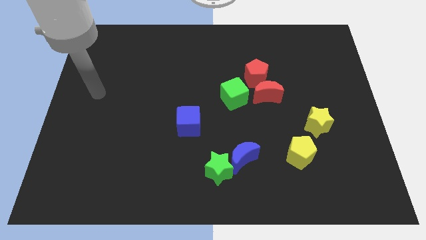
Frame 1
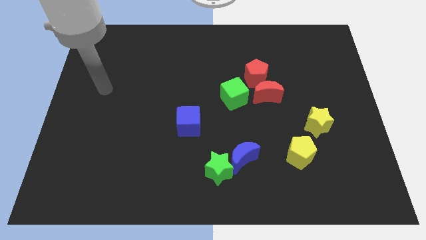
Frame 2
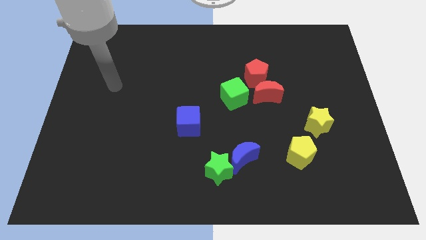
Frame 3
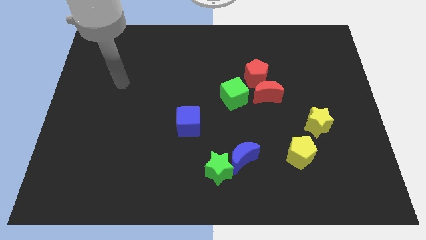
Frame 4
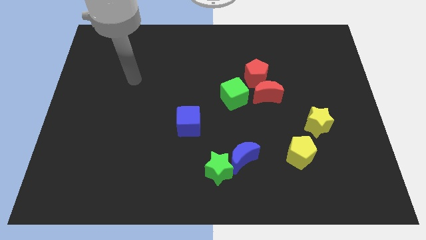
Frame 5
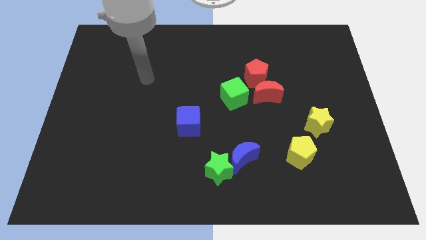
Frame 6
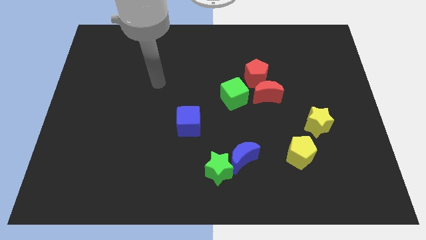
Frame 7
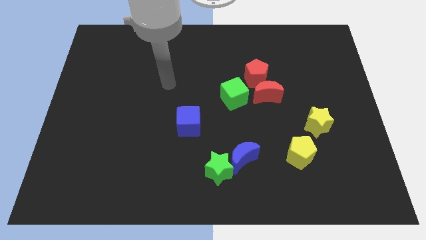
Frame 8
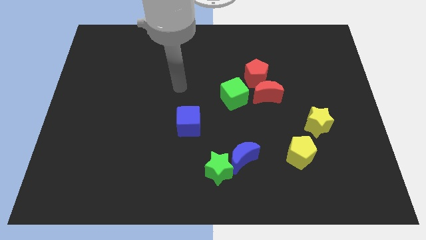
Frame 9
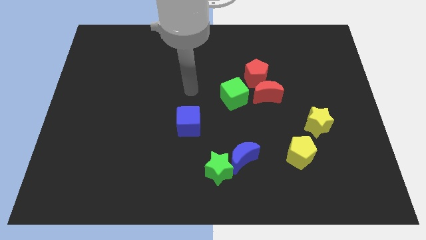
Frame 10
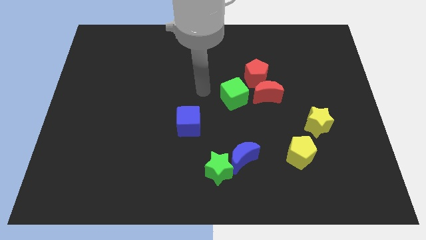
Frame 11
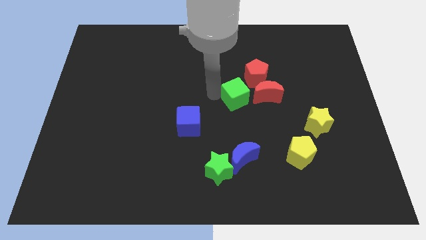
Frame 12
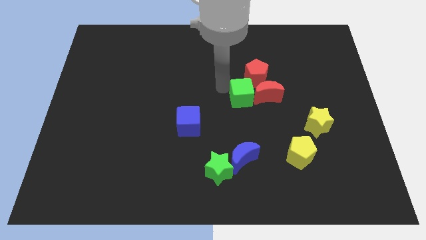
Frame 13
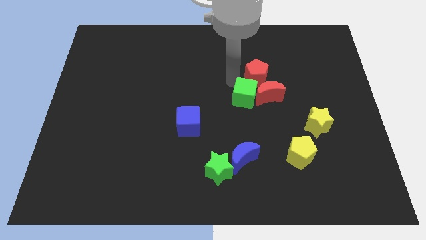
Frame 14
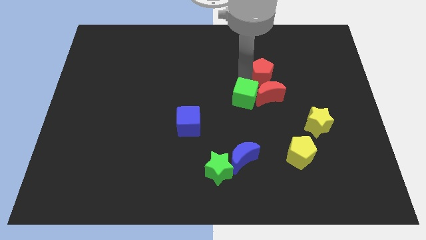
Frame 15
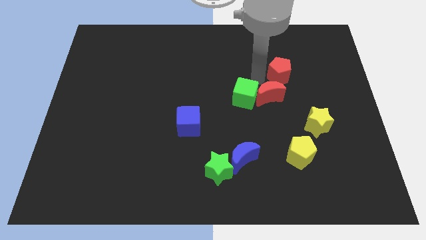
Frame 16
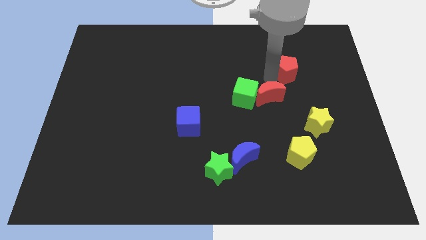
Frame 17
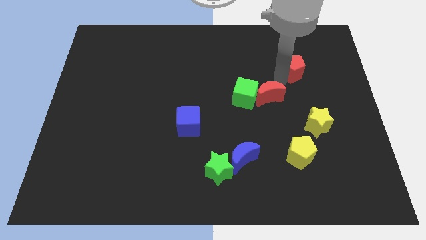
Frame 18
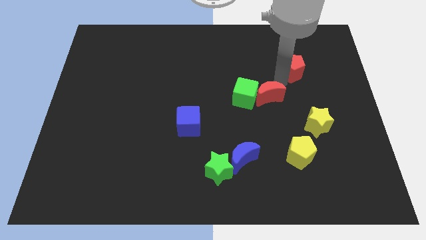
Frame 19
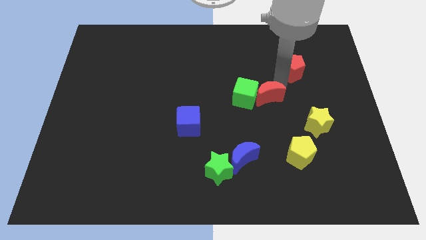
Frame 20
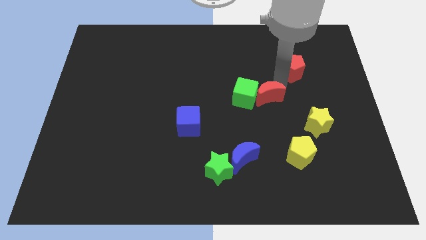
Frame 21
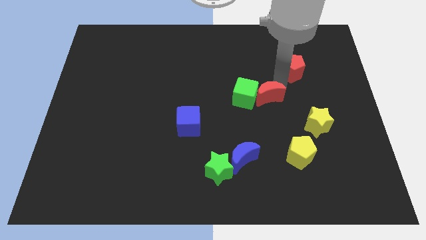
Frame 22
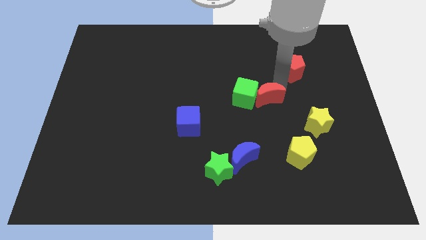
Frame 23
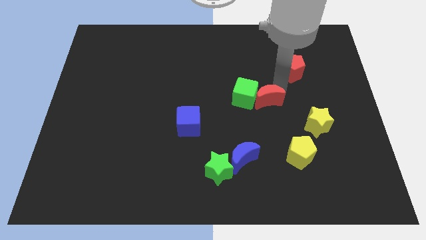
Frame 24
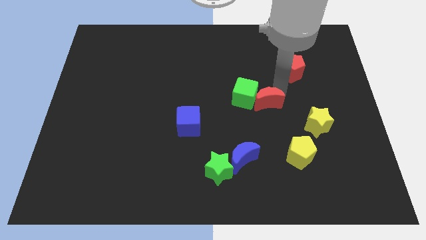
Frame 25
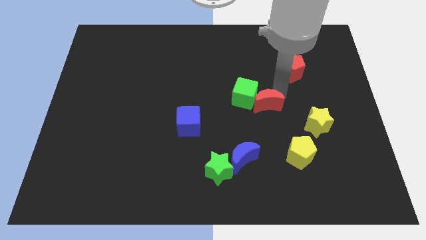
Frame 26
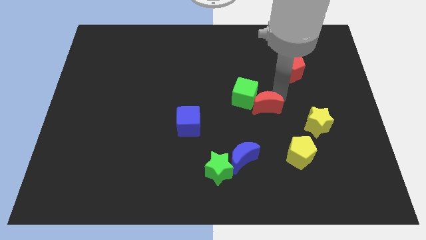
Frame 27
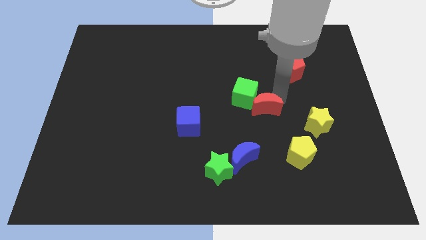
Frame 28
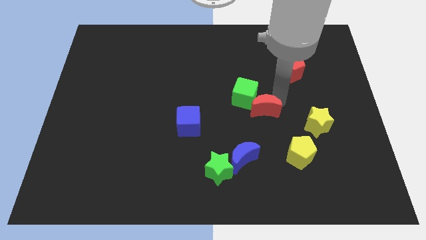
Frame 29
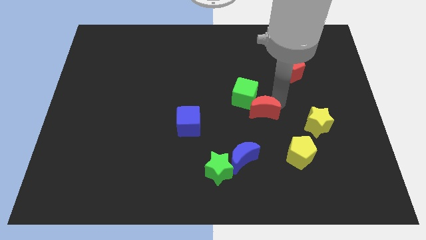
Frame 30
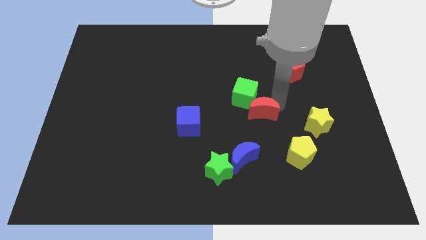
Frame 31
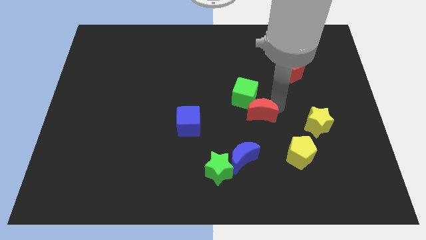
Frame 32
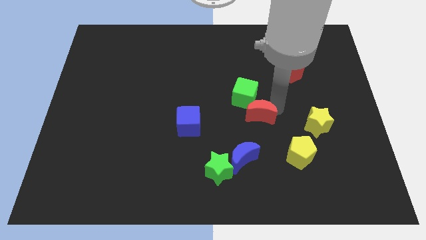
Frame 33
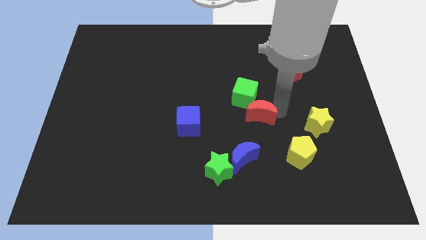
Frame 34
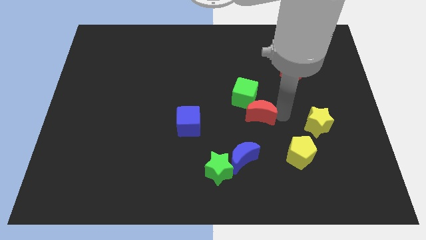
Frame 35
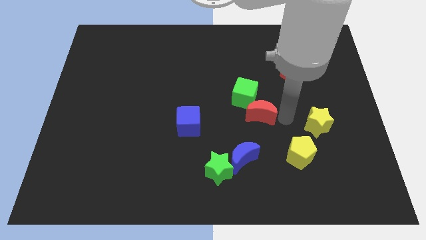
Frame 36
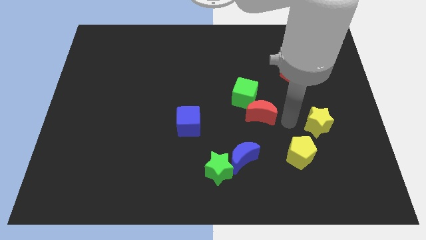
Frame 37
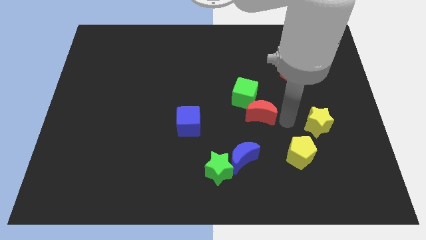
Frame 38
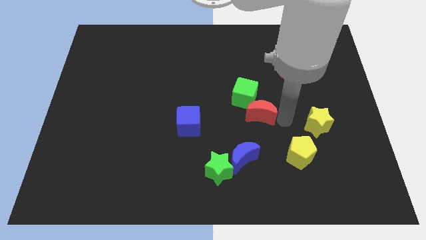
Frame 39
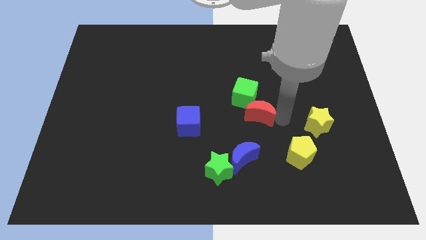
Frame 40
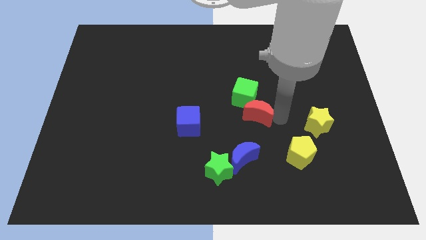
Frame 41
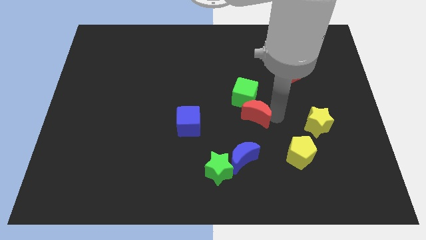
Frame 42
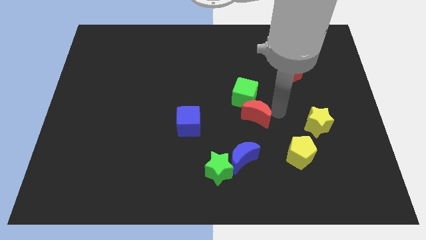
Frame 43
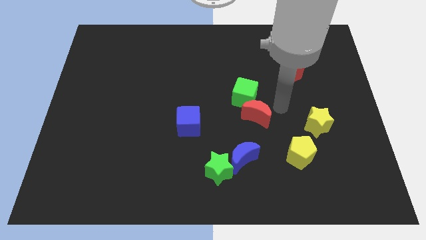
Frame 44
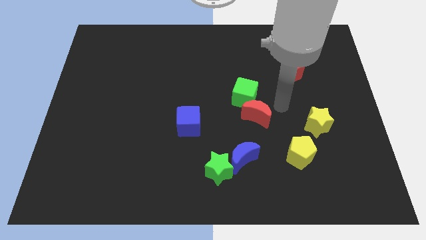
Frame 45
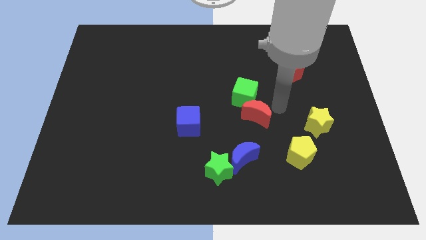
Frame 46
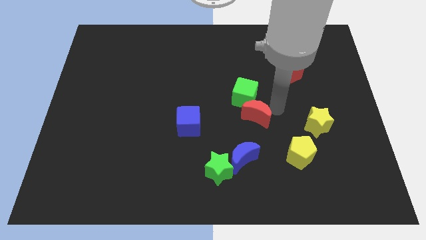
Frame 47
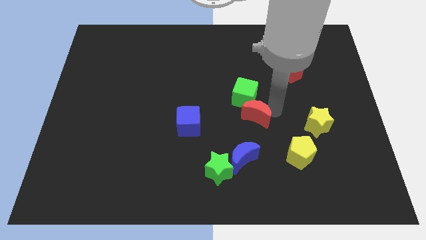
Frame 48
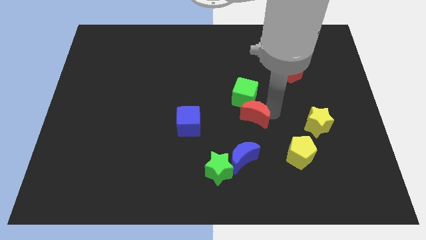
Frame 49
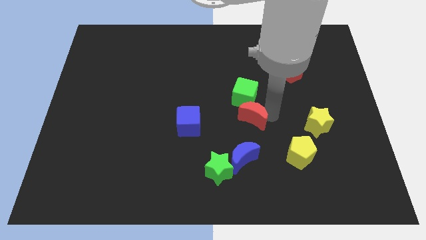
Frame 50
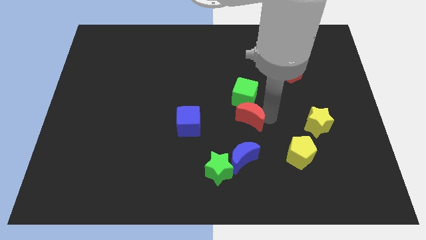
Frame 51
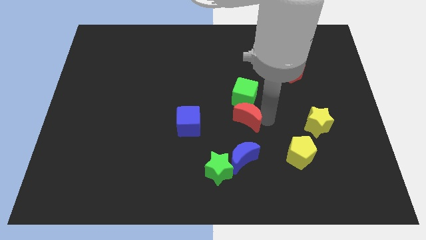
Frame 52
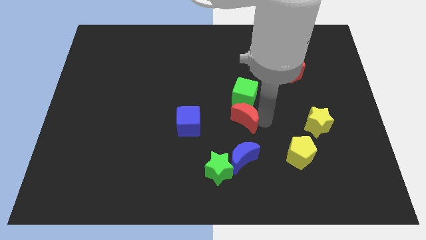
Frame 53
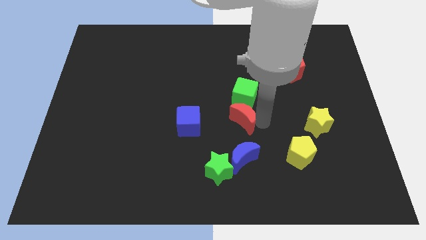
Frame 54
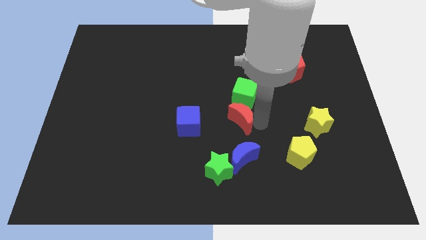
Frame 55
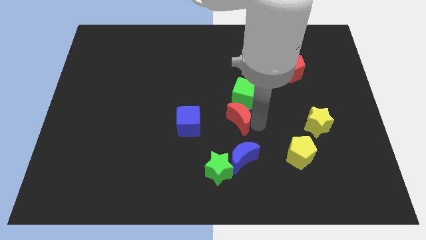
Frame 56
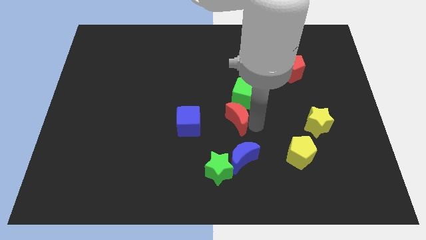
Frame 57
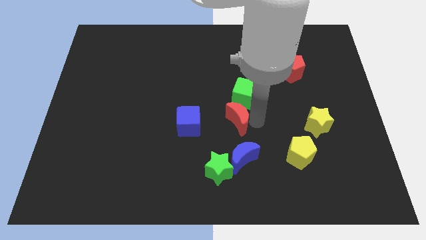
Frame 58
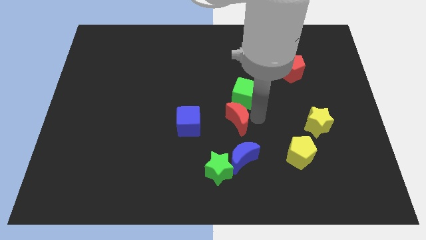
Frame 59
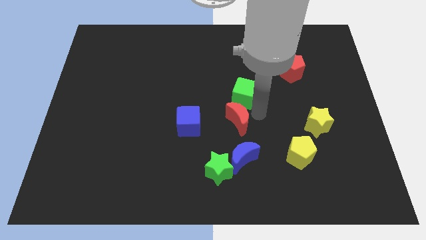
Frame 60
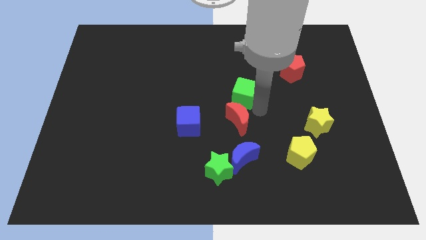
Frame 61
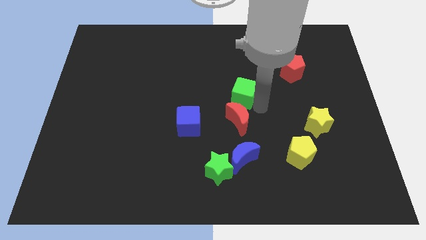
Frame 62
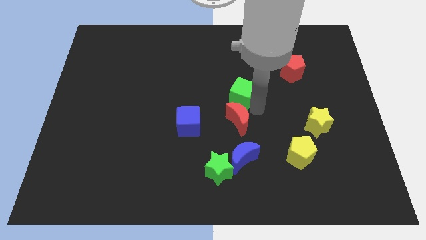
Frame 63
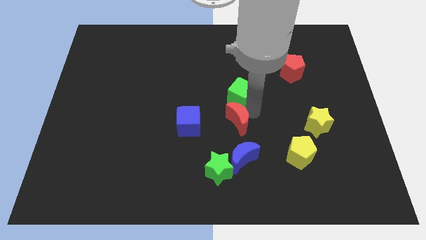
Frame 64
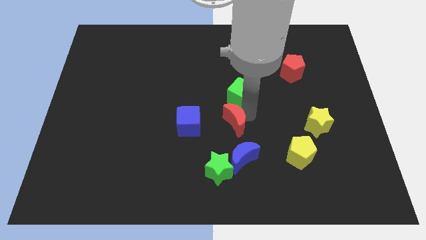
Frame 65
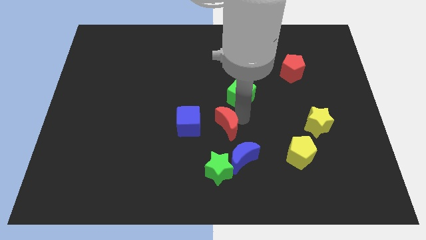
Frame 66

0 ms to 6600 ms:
put the red moon to the top left side of the blue moon
